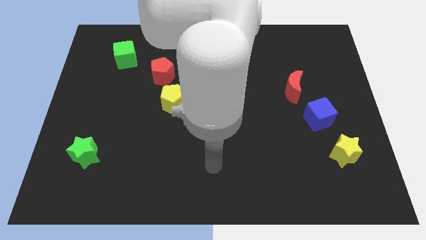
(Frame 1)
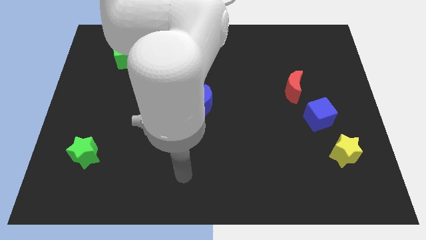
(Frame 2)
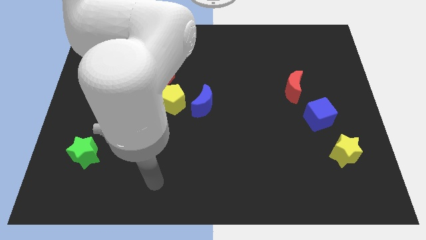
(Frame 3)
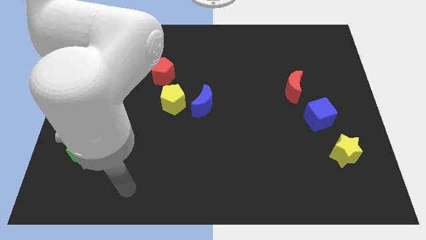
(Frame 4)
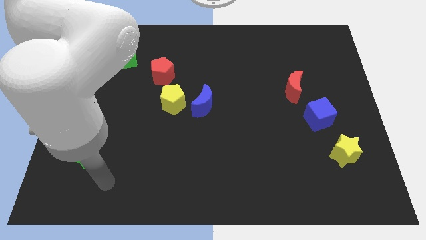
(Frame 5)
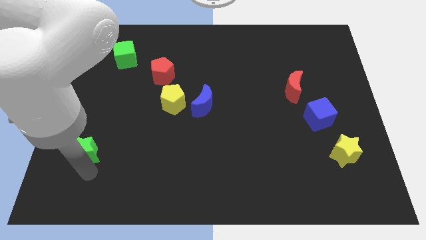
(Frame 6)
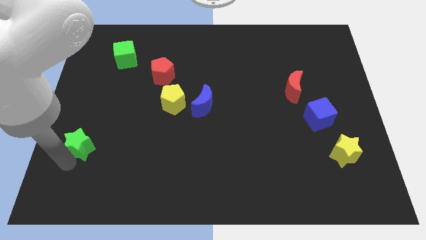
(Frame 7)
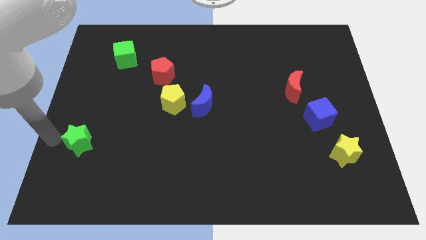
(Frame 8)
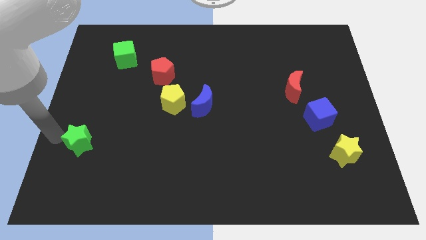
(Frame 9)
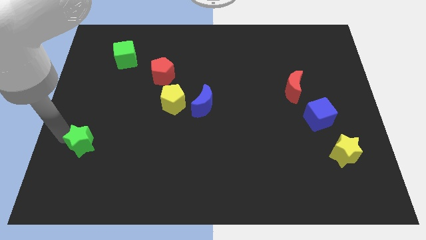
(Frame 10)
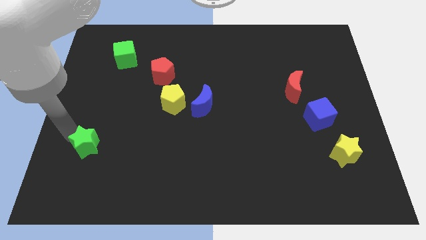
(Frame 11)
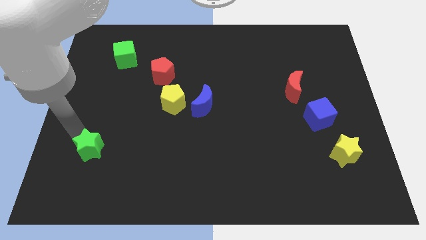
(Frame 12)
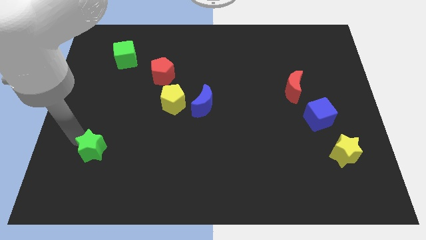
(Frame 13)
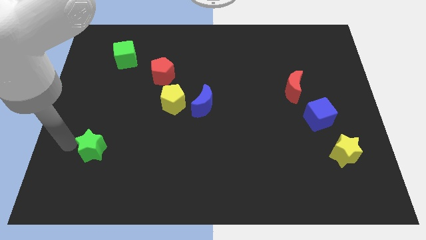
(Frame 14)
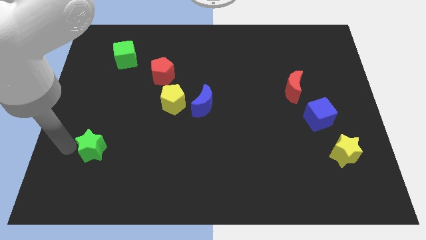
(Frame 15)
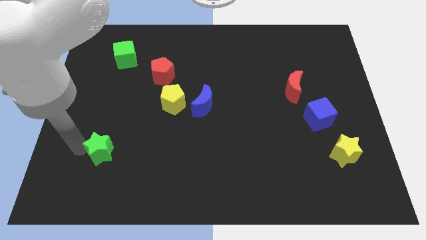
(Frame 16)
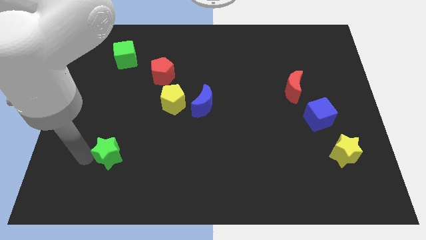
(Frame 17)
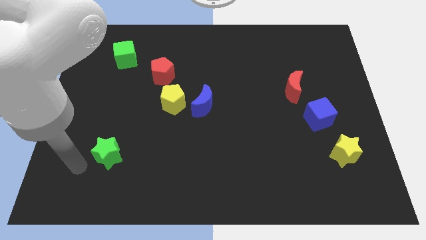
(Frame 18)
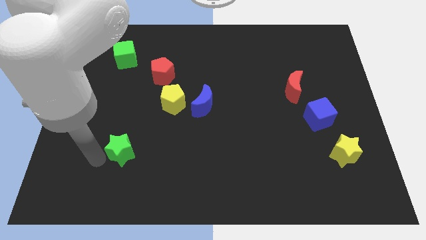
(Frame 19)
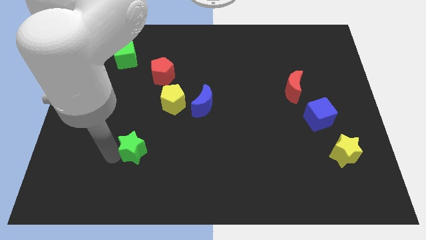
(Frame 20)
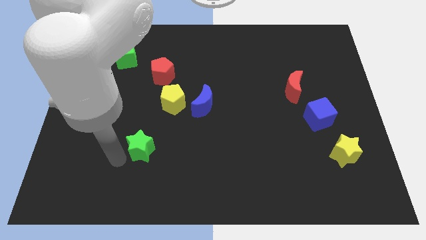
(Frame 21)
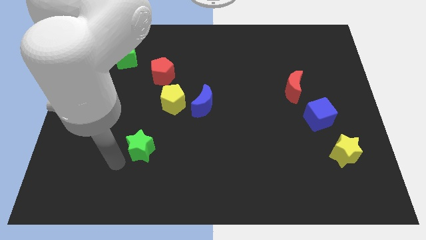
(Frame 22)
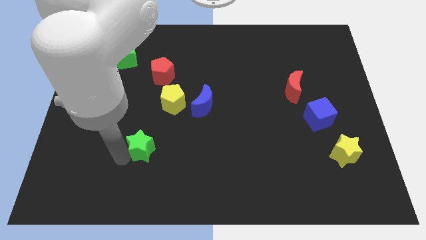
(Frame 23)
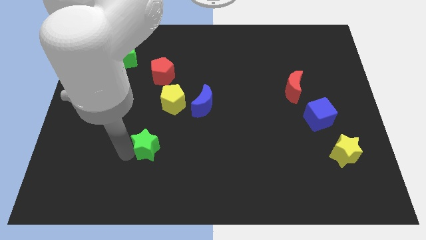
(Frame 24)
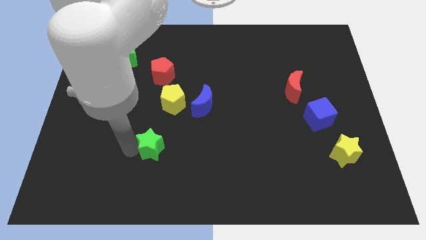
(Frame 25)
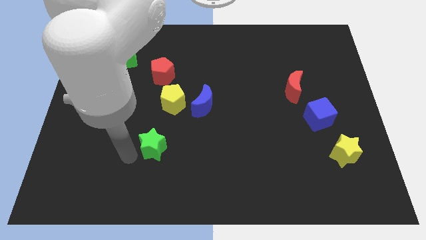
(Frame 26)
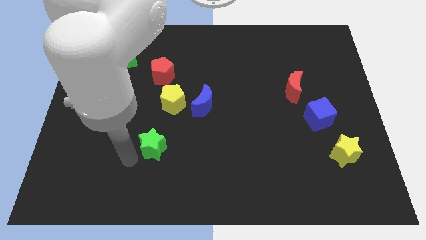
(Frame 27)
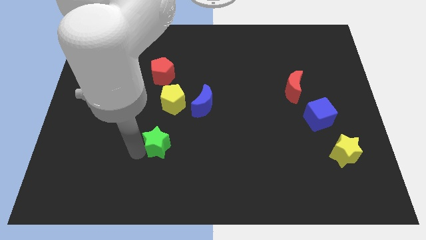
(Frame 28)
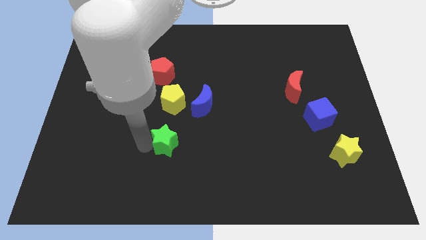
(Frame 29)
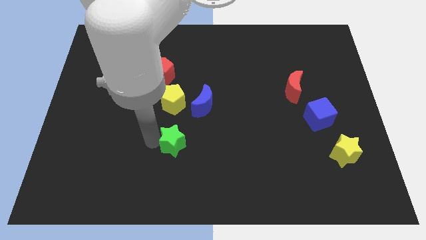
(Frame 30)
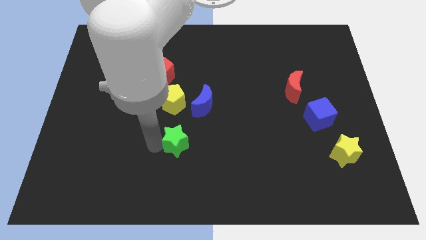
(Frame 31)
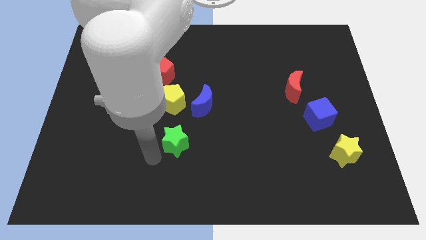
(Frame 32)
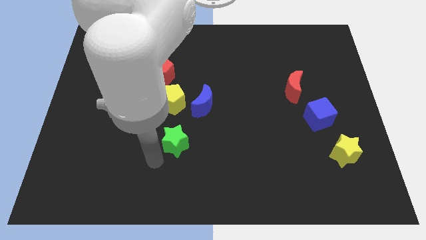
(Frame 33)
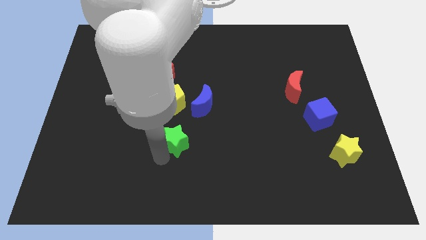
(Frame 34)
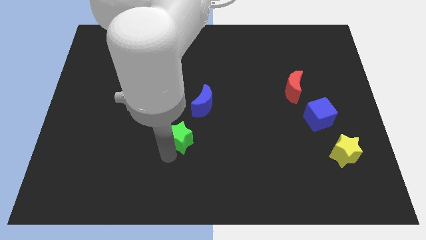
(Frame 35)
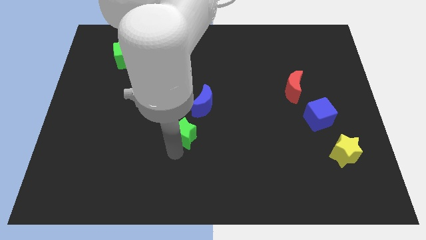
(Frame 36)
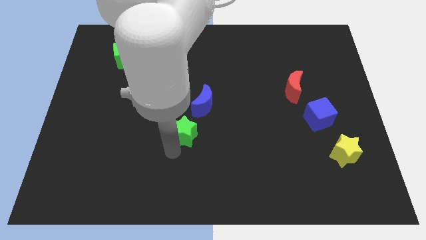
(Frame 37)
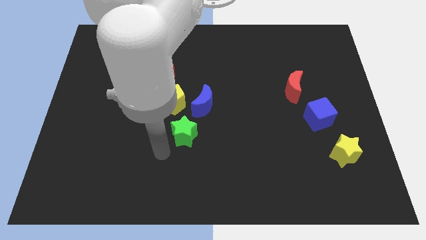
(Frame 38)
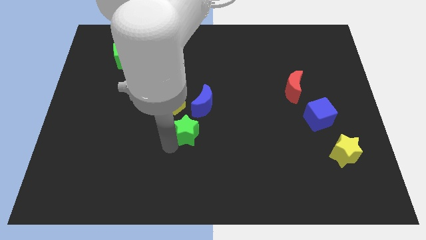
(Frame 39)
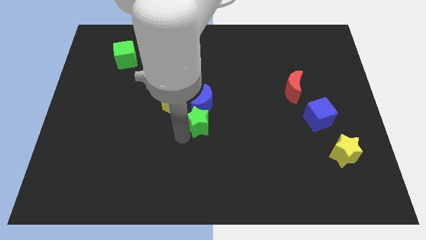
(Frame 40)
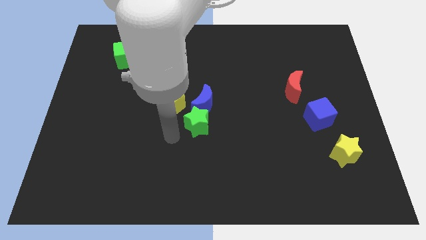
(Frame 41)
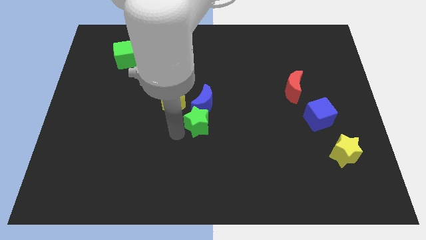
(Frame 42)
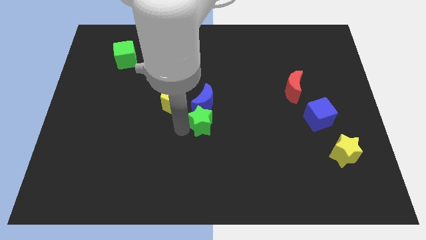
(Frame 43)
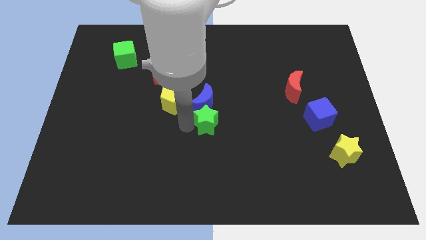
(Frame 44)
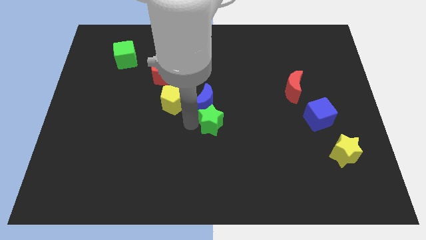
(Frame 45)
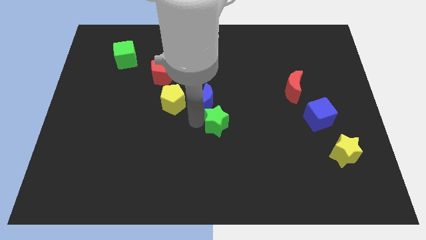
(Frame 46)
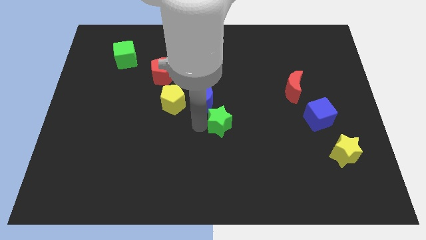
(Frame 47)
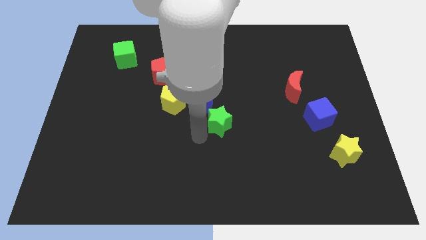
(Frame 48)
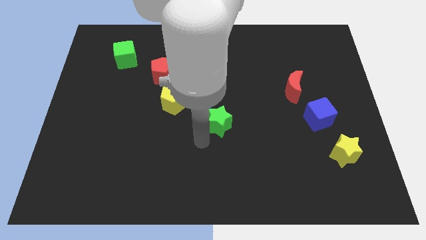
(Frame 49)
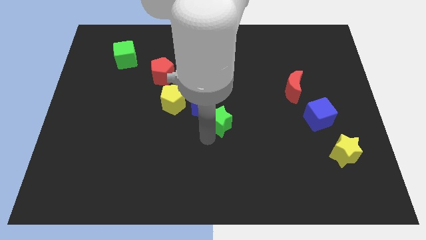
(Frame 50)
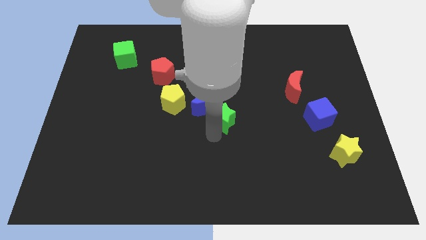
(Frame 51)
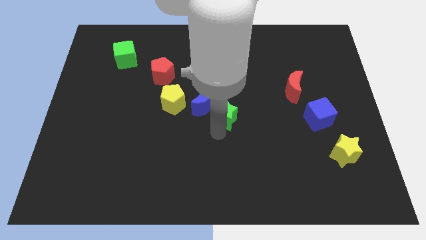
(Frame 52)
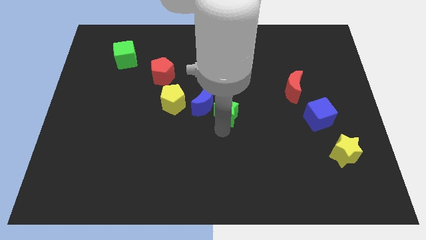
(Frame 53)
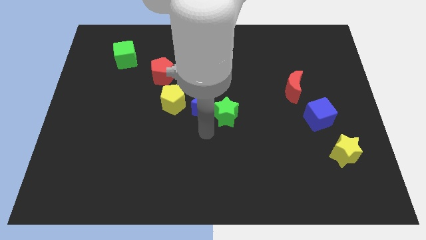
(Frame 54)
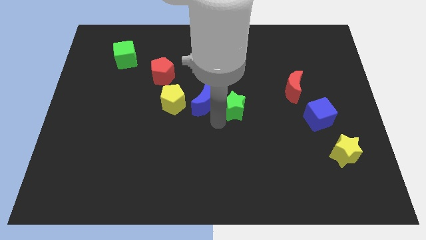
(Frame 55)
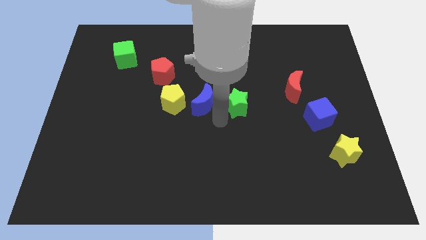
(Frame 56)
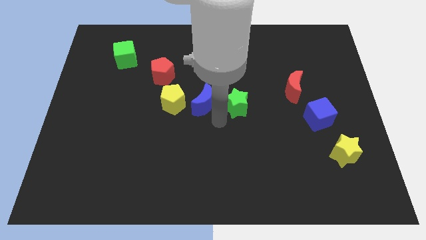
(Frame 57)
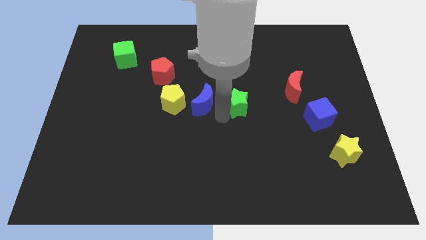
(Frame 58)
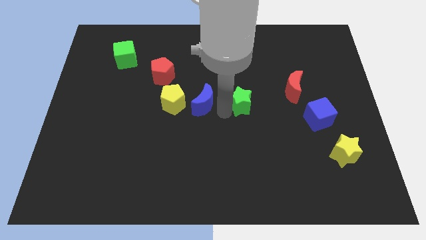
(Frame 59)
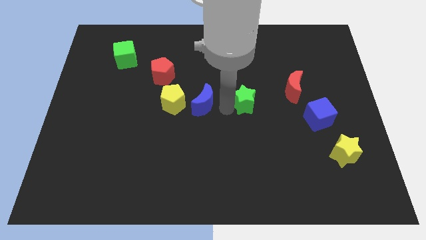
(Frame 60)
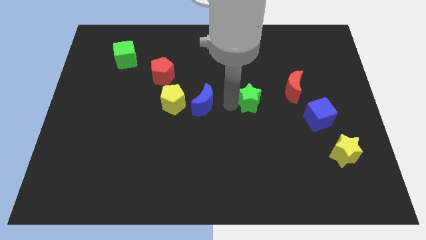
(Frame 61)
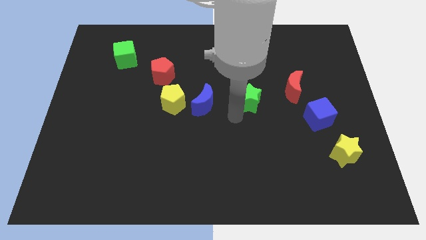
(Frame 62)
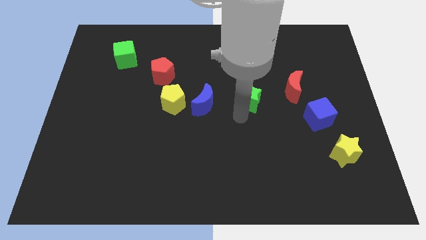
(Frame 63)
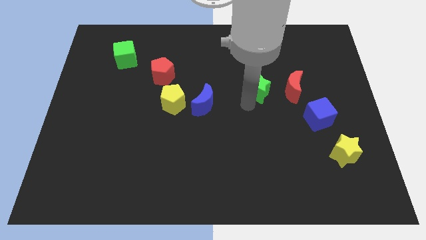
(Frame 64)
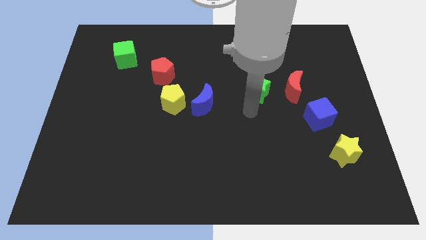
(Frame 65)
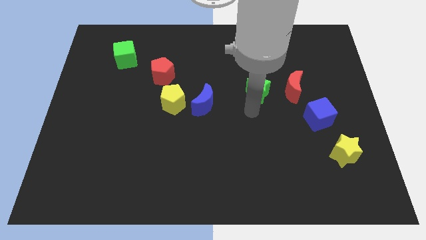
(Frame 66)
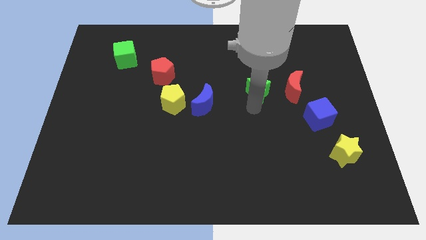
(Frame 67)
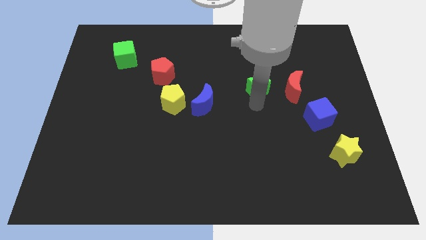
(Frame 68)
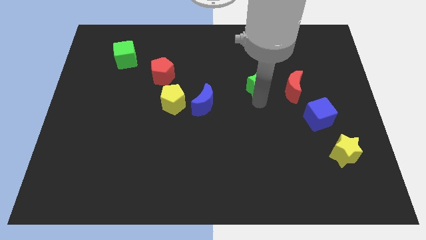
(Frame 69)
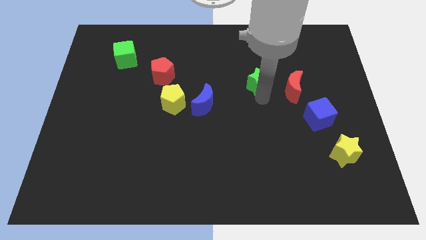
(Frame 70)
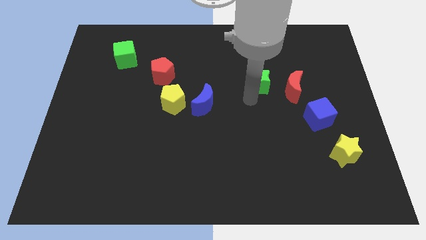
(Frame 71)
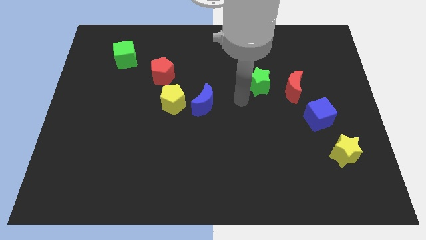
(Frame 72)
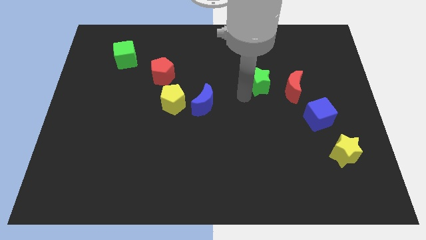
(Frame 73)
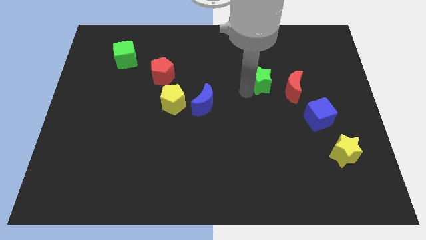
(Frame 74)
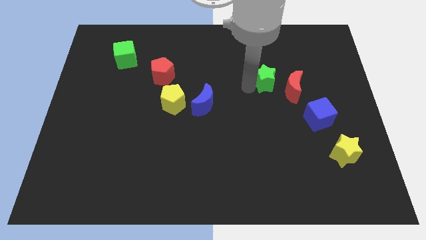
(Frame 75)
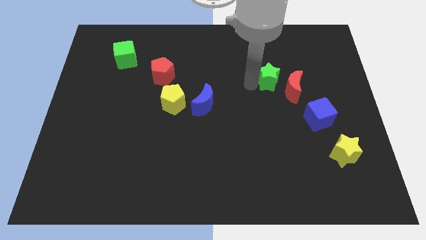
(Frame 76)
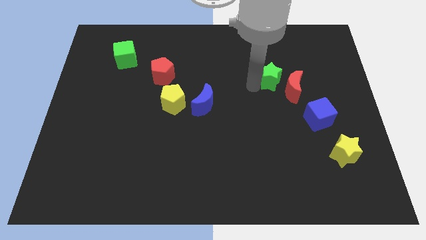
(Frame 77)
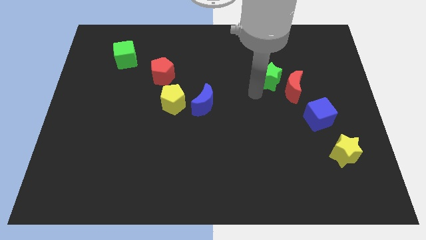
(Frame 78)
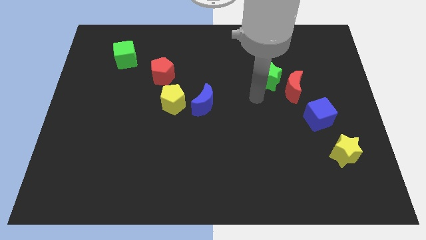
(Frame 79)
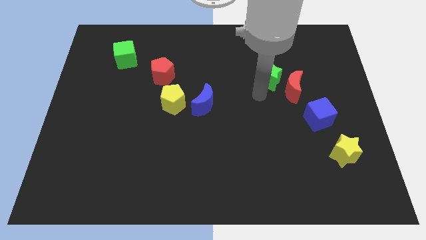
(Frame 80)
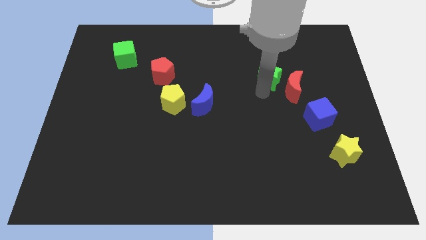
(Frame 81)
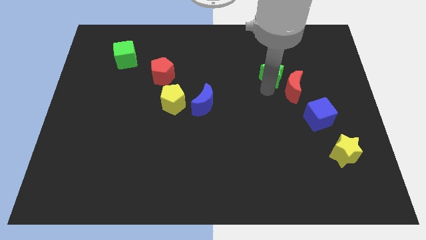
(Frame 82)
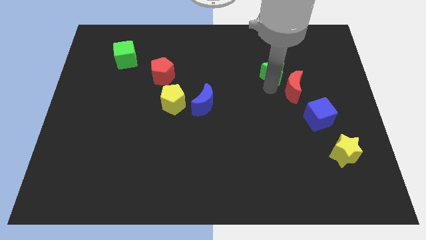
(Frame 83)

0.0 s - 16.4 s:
slide the green star to the top side of the red moon
